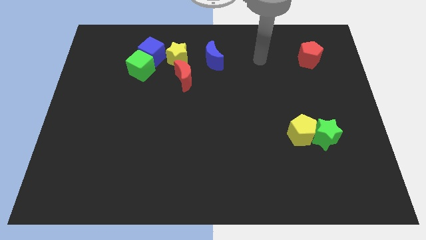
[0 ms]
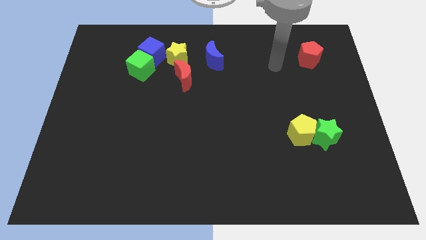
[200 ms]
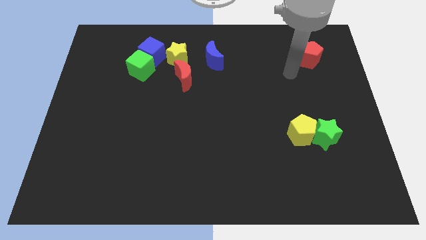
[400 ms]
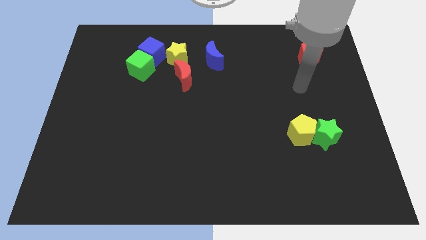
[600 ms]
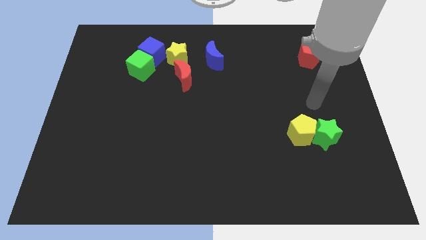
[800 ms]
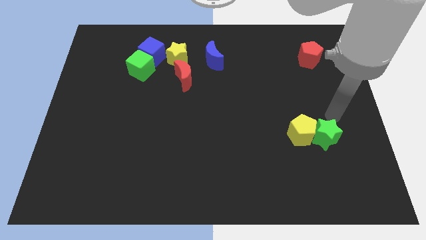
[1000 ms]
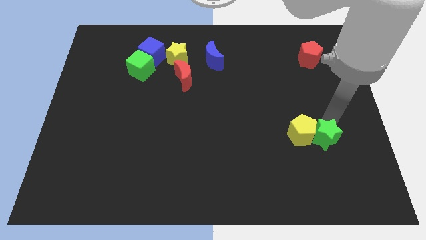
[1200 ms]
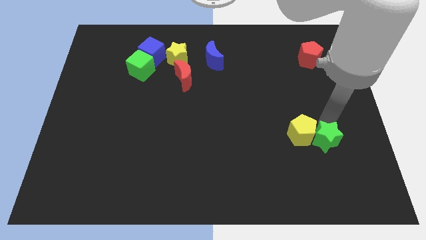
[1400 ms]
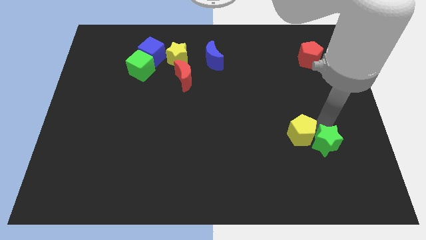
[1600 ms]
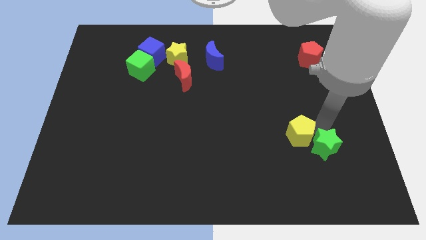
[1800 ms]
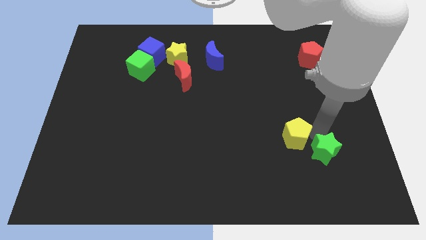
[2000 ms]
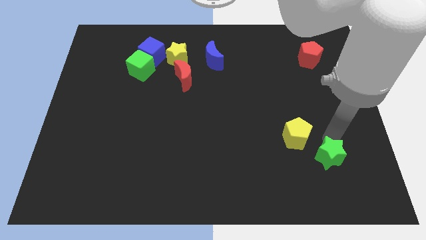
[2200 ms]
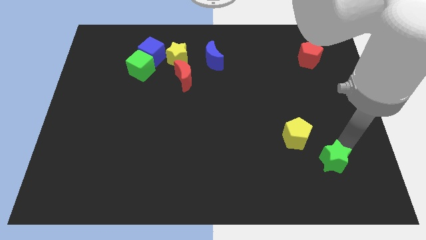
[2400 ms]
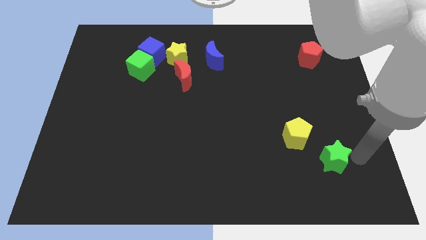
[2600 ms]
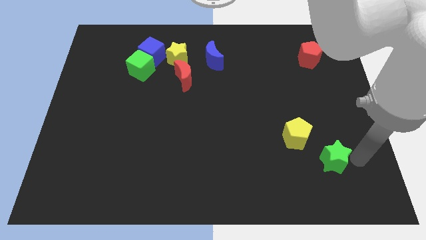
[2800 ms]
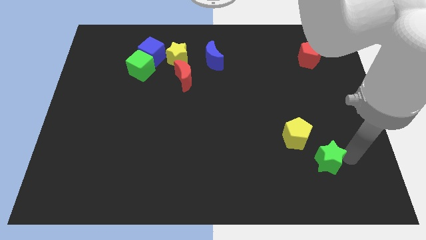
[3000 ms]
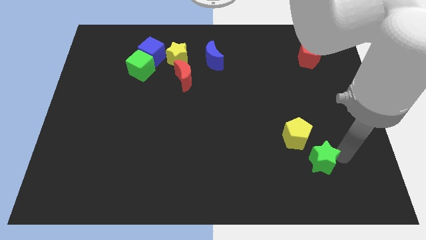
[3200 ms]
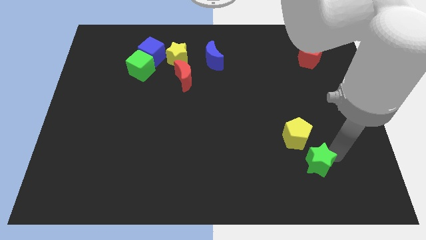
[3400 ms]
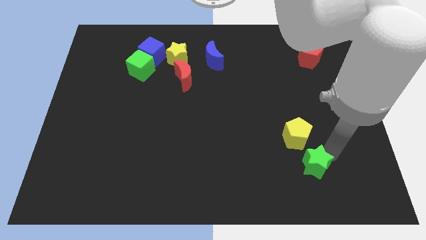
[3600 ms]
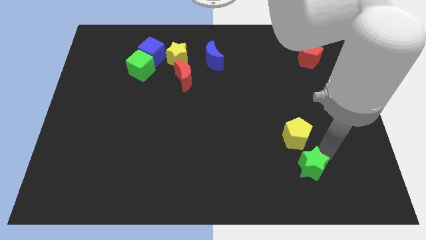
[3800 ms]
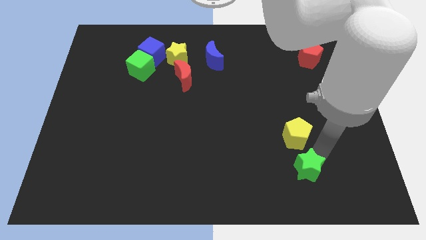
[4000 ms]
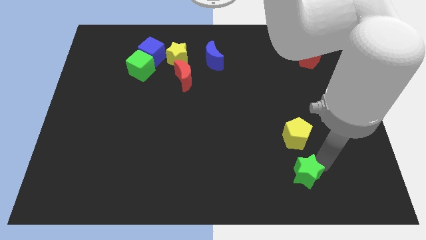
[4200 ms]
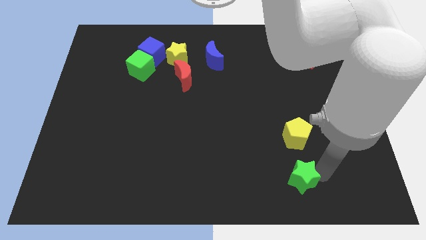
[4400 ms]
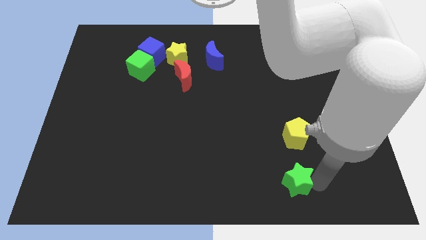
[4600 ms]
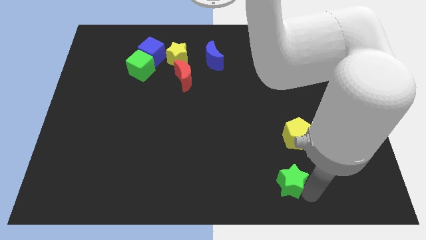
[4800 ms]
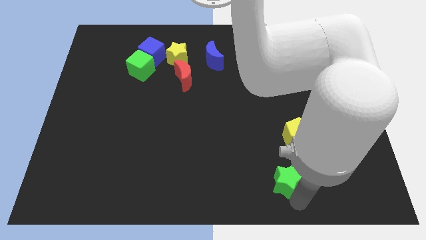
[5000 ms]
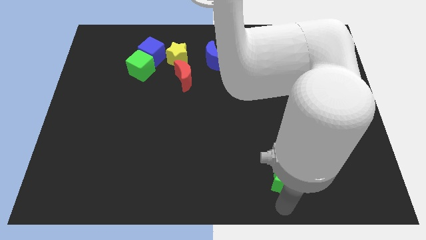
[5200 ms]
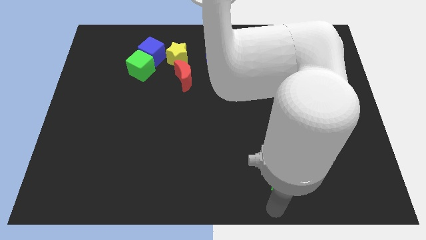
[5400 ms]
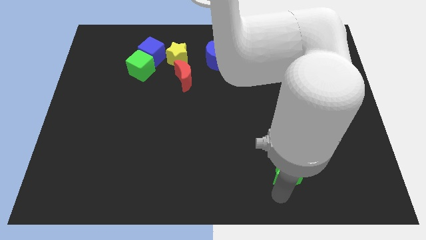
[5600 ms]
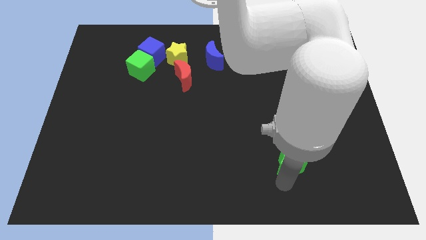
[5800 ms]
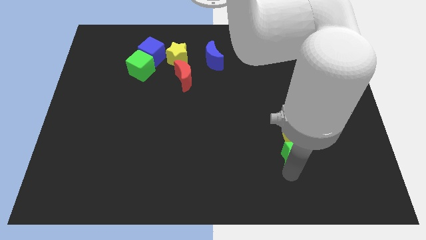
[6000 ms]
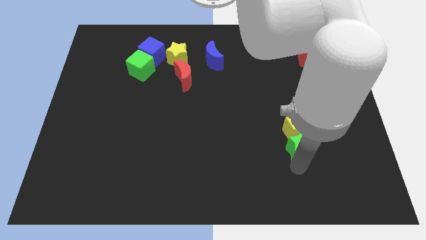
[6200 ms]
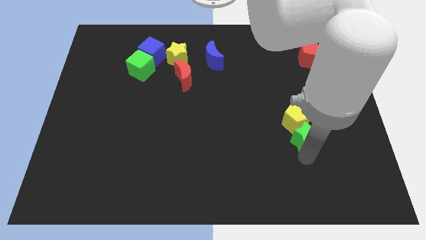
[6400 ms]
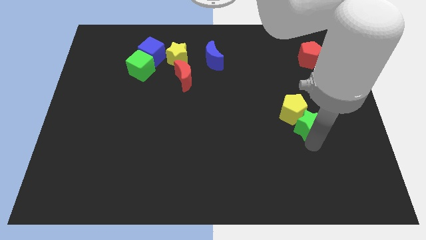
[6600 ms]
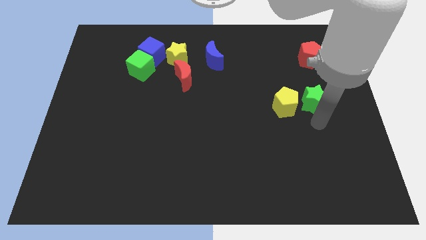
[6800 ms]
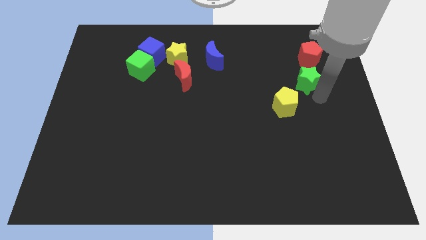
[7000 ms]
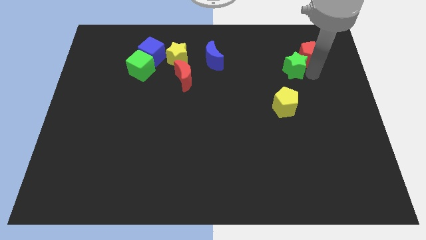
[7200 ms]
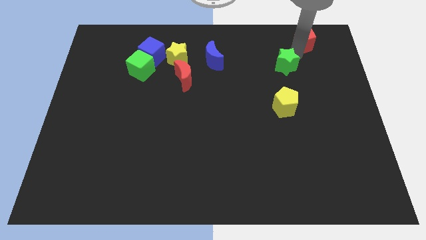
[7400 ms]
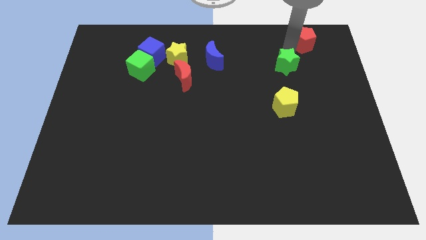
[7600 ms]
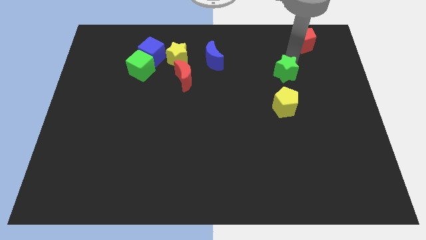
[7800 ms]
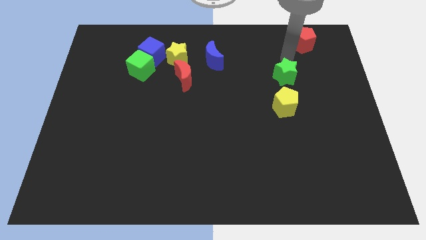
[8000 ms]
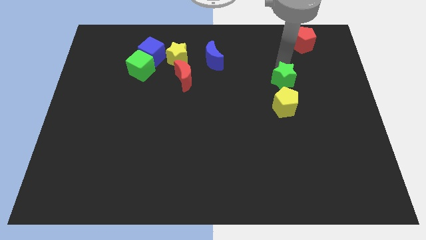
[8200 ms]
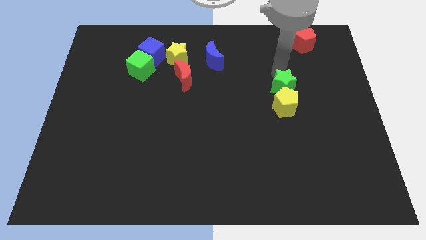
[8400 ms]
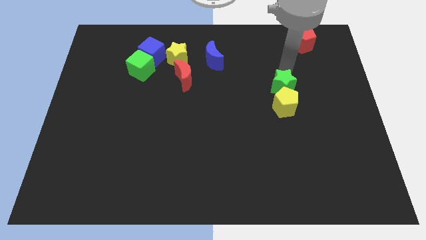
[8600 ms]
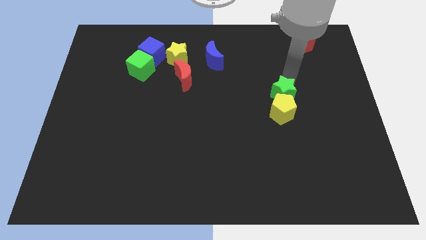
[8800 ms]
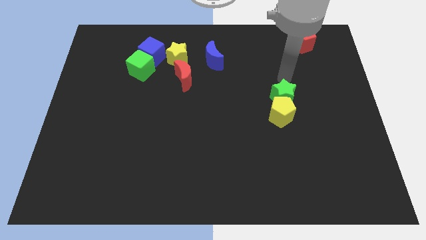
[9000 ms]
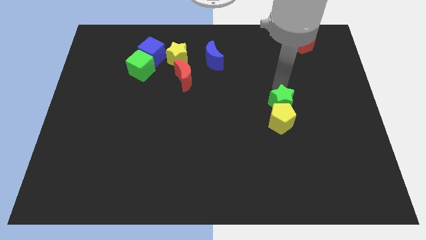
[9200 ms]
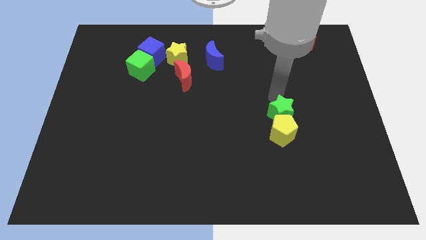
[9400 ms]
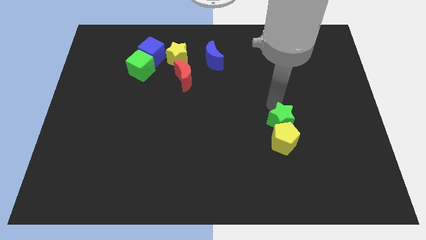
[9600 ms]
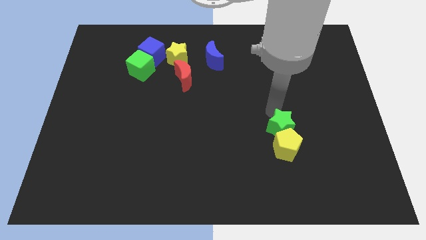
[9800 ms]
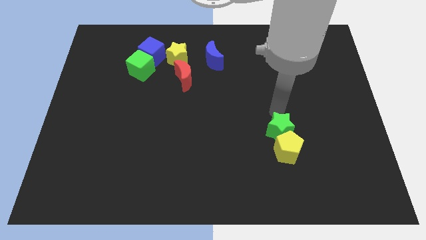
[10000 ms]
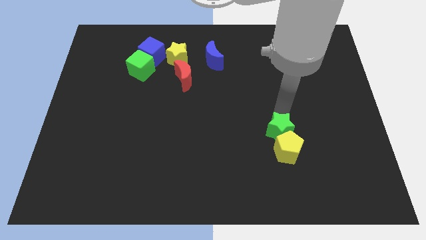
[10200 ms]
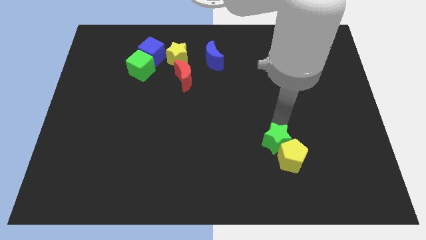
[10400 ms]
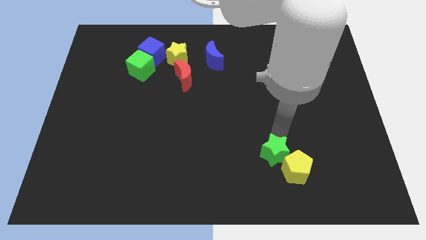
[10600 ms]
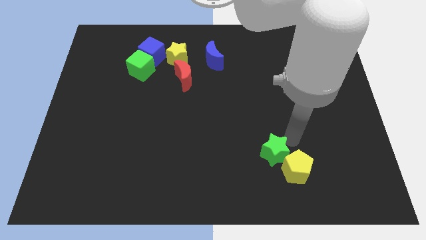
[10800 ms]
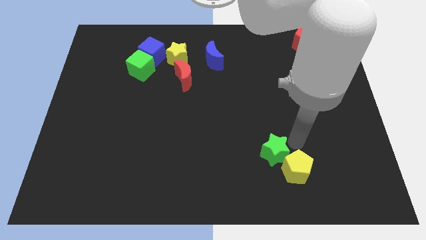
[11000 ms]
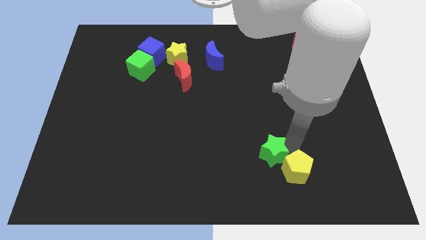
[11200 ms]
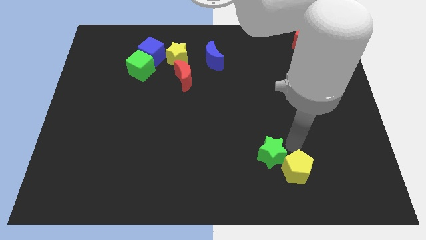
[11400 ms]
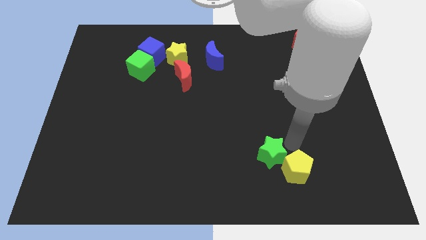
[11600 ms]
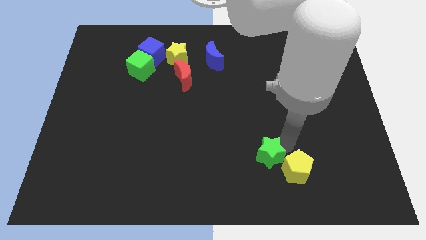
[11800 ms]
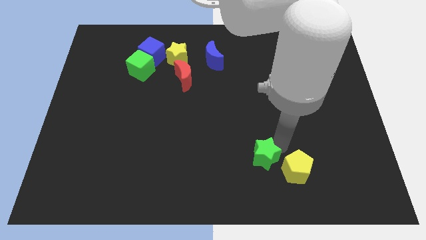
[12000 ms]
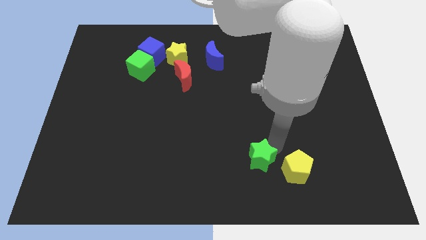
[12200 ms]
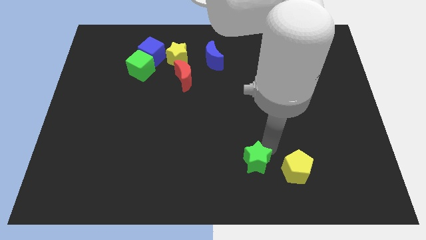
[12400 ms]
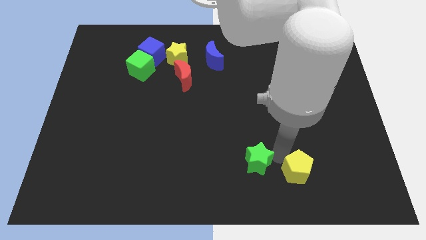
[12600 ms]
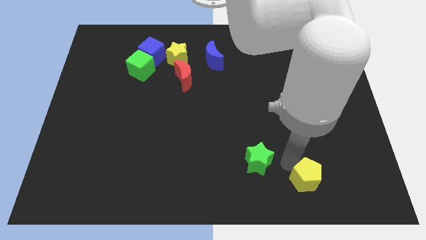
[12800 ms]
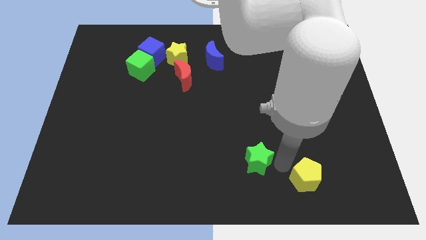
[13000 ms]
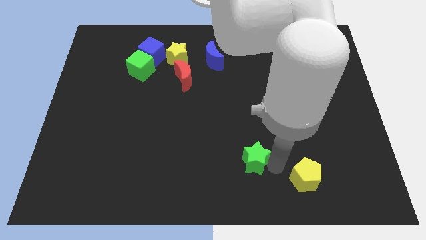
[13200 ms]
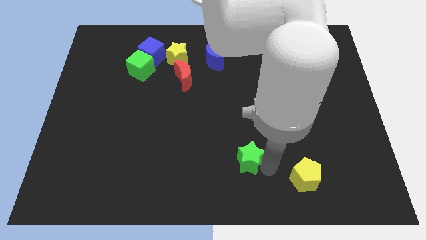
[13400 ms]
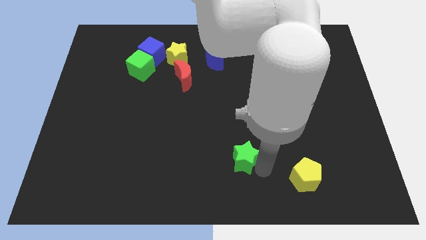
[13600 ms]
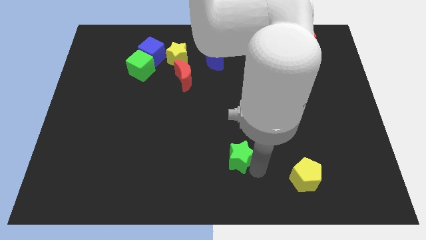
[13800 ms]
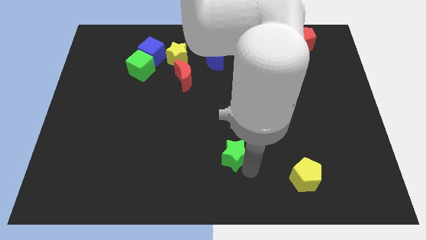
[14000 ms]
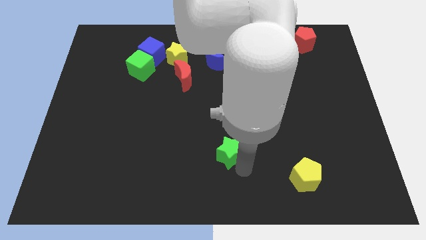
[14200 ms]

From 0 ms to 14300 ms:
move the green star to the left

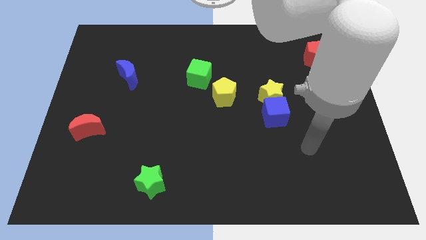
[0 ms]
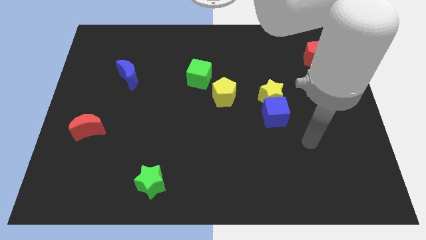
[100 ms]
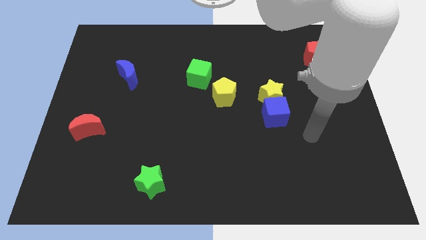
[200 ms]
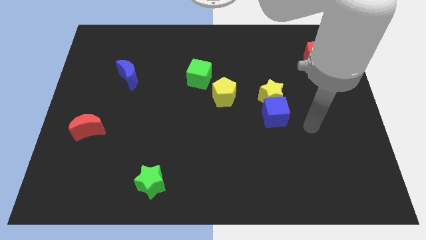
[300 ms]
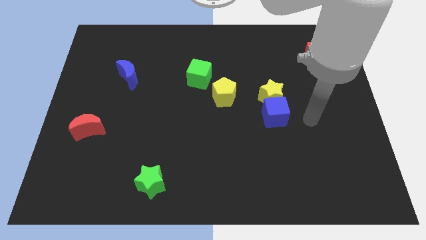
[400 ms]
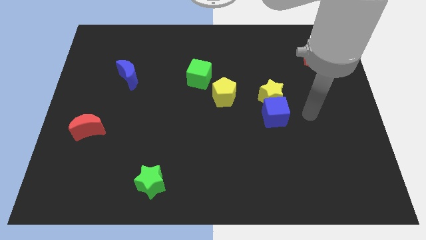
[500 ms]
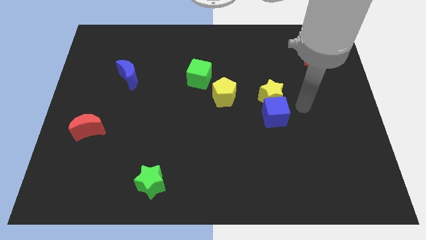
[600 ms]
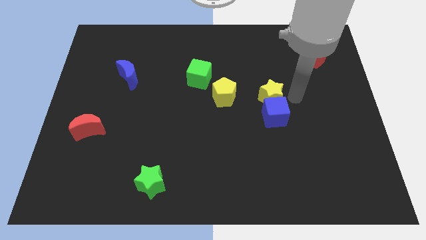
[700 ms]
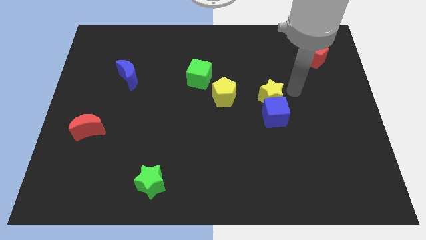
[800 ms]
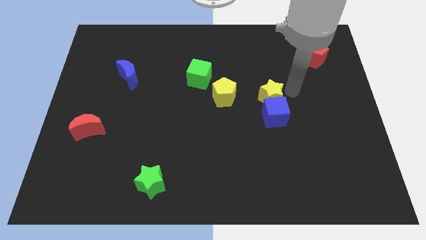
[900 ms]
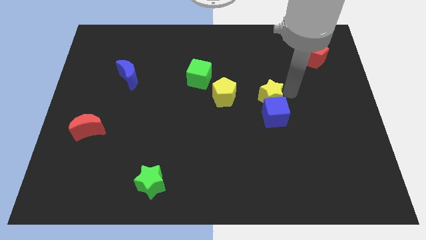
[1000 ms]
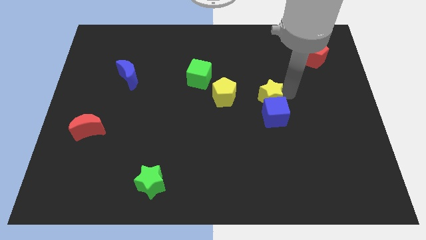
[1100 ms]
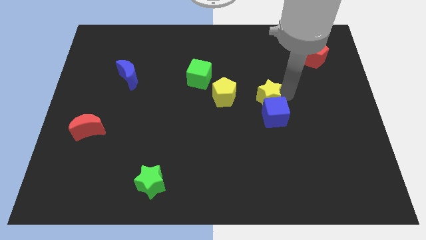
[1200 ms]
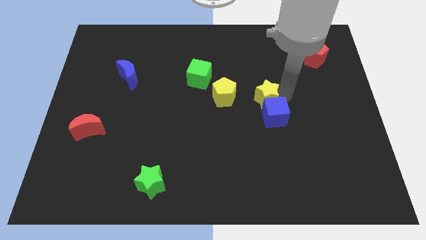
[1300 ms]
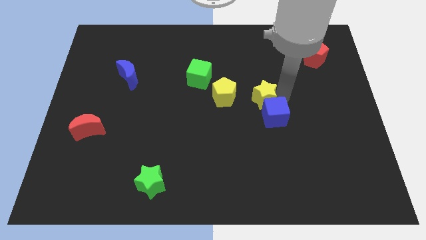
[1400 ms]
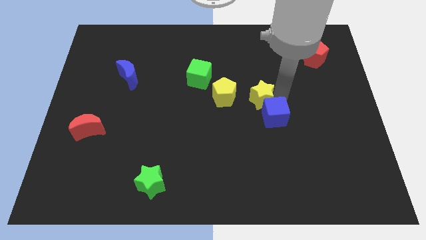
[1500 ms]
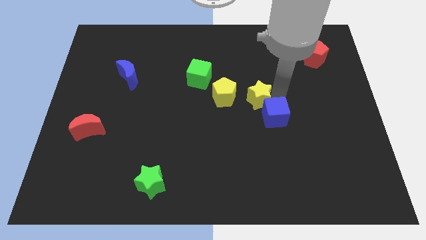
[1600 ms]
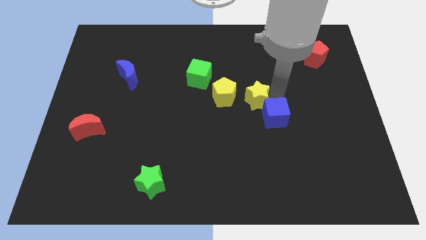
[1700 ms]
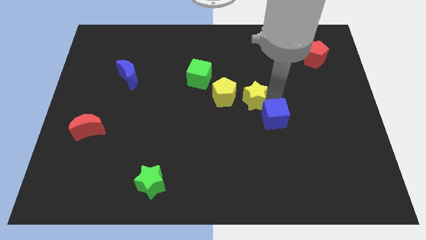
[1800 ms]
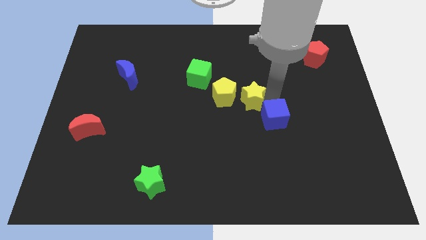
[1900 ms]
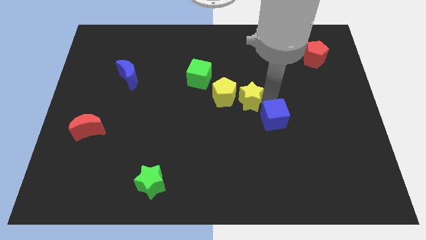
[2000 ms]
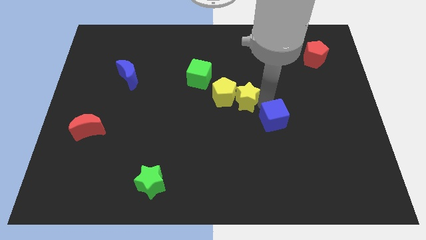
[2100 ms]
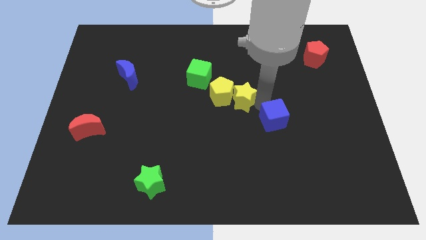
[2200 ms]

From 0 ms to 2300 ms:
push the yellow star a bit left
